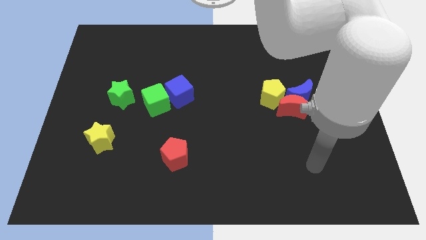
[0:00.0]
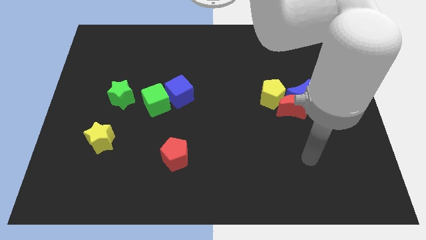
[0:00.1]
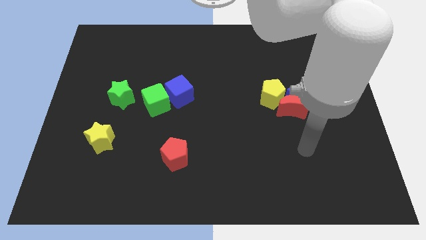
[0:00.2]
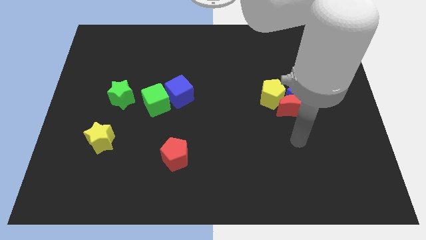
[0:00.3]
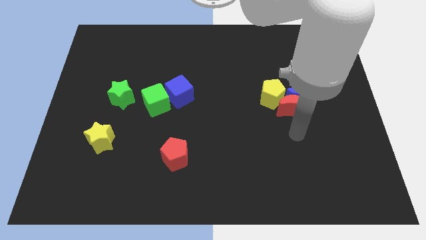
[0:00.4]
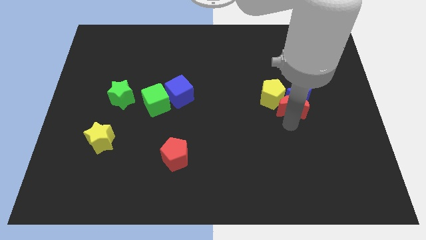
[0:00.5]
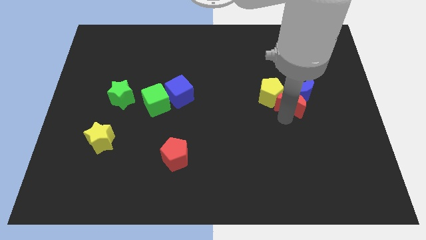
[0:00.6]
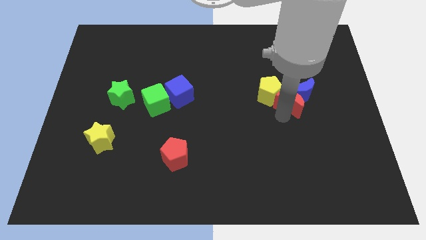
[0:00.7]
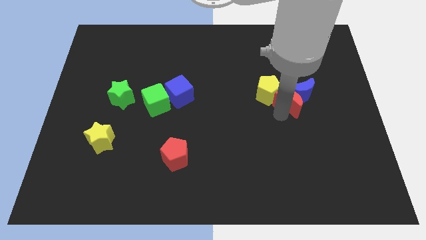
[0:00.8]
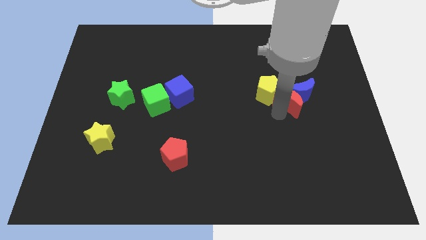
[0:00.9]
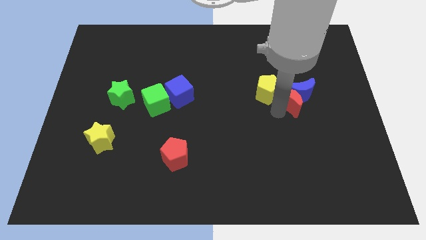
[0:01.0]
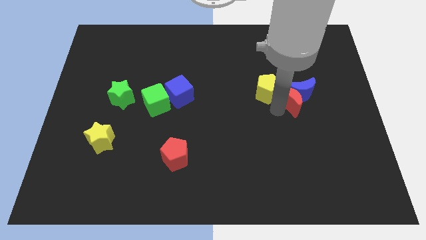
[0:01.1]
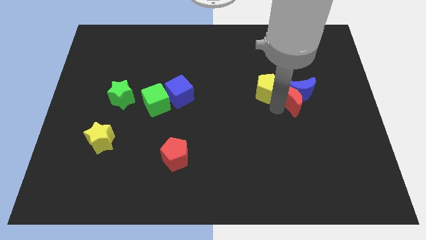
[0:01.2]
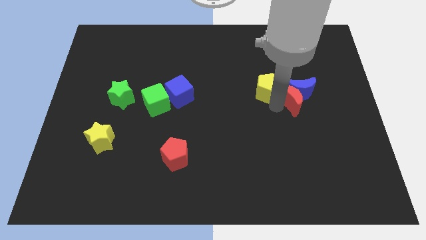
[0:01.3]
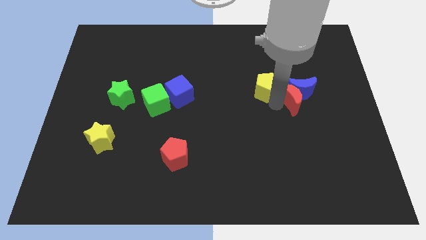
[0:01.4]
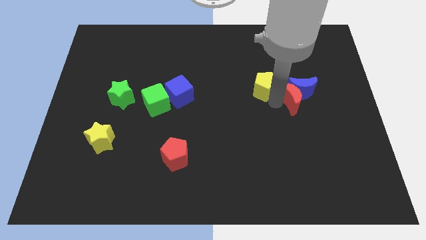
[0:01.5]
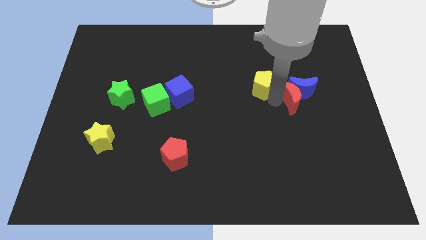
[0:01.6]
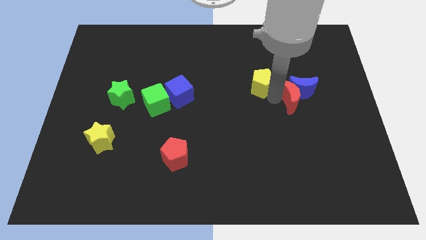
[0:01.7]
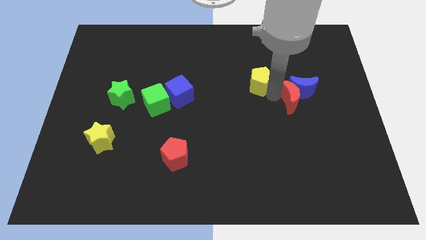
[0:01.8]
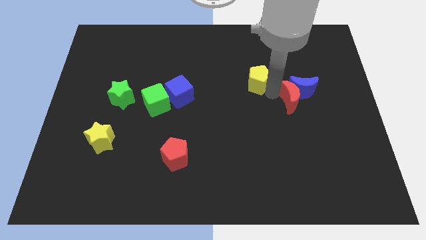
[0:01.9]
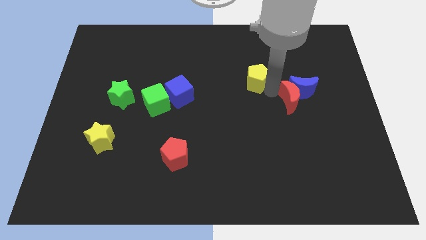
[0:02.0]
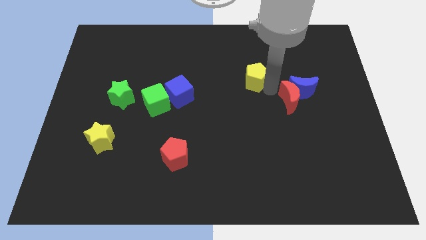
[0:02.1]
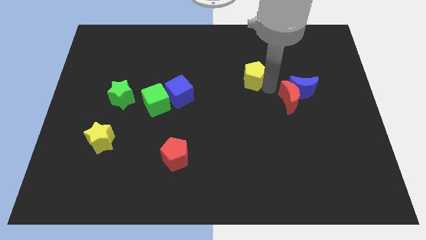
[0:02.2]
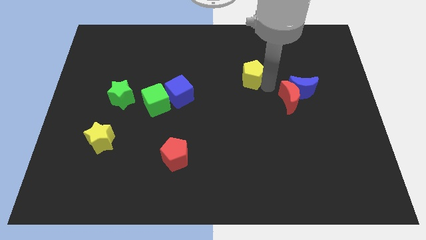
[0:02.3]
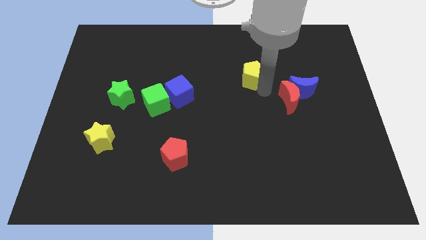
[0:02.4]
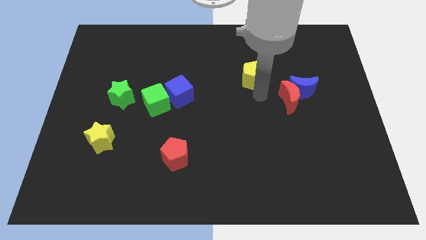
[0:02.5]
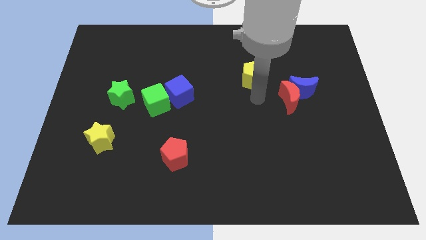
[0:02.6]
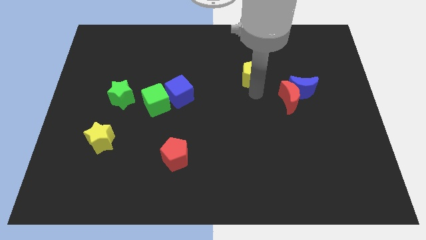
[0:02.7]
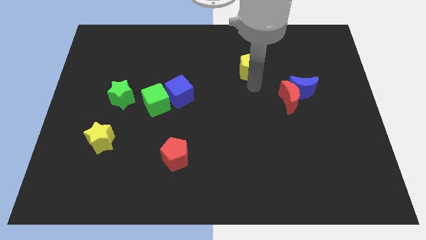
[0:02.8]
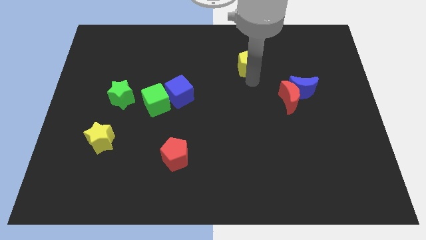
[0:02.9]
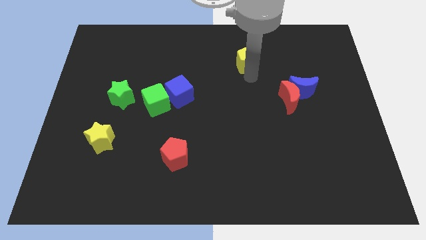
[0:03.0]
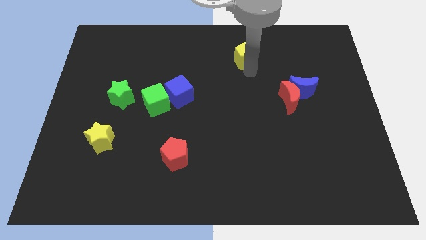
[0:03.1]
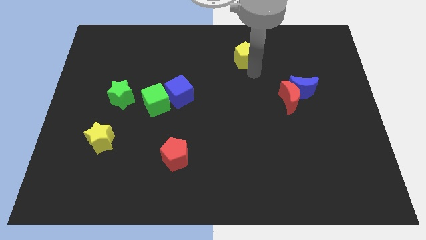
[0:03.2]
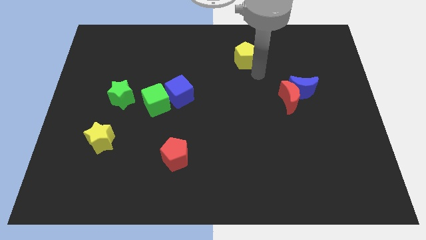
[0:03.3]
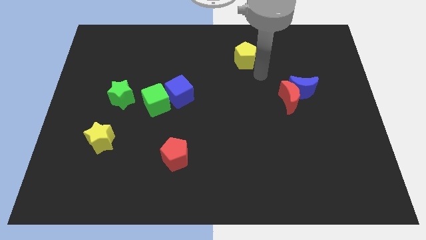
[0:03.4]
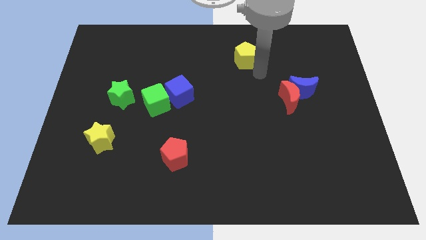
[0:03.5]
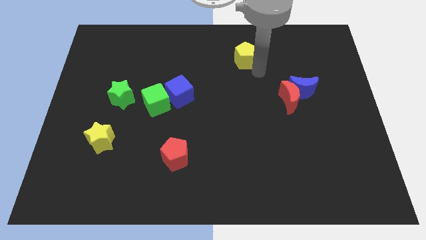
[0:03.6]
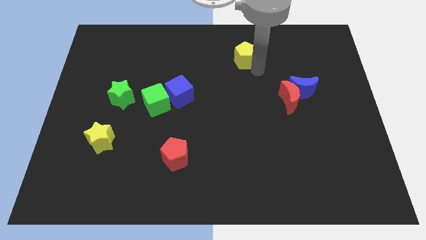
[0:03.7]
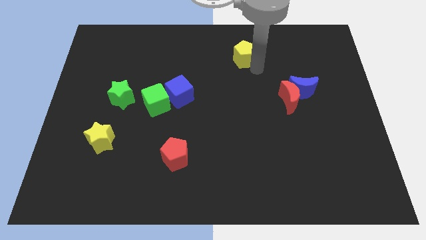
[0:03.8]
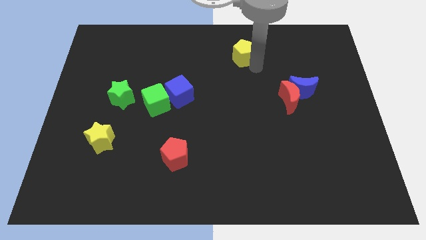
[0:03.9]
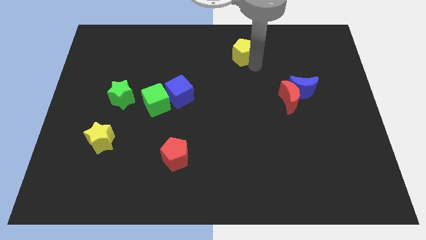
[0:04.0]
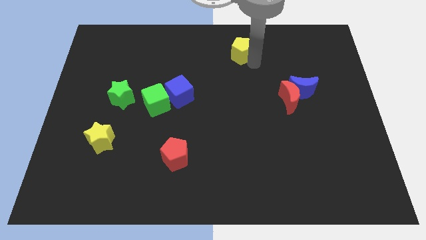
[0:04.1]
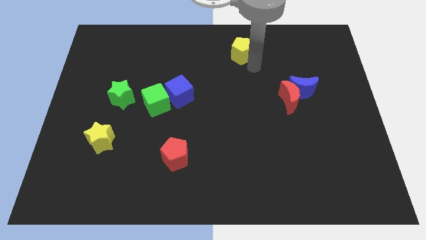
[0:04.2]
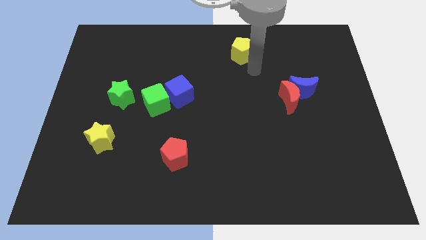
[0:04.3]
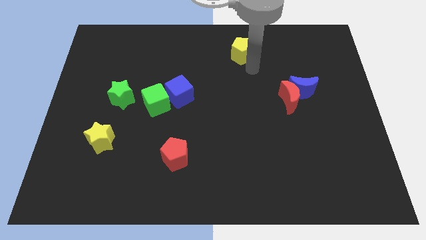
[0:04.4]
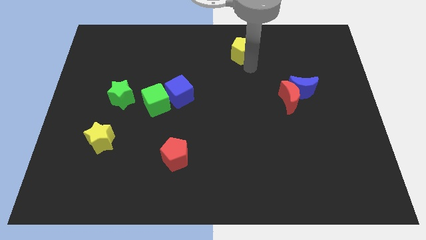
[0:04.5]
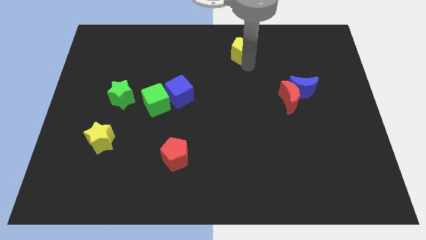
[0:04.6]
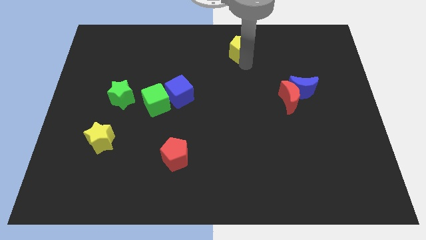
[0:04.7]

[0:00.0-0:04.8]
move the yellow pentagon to the top side

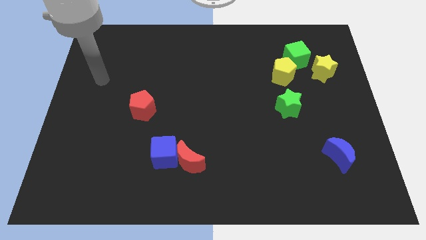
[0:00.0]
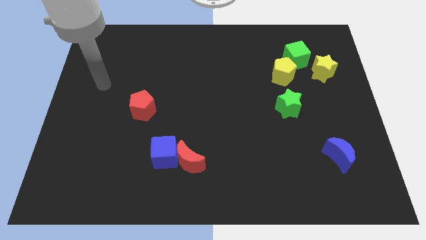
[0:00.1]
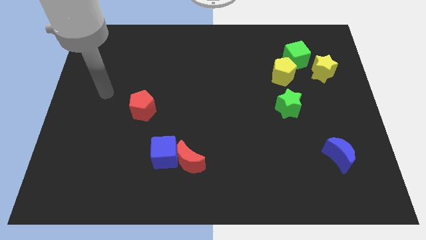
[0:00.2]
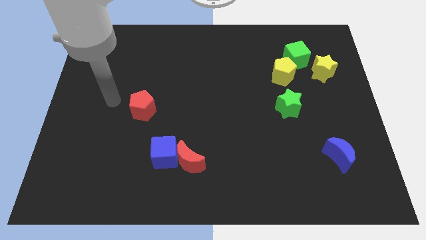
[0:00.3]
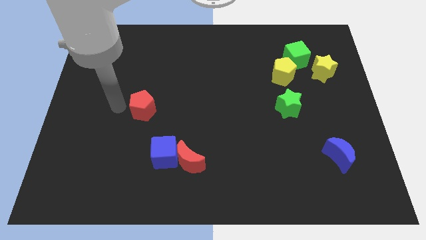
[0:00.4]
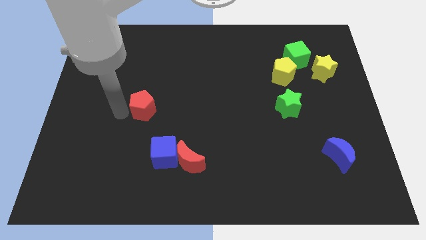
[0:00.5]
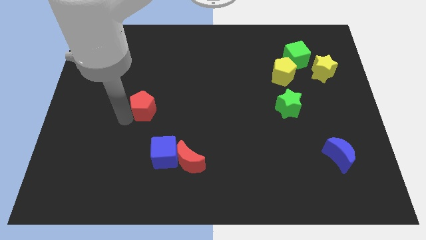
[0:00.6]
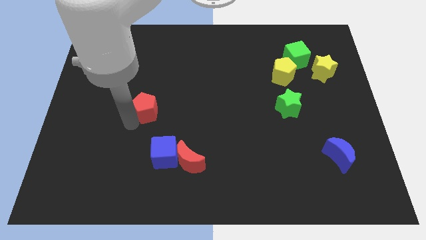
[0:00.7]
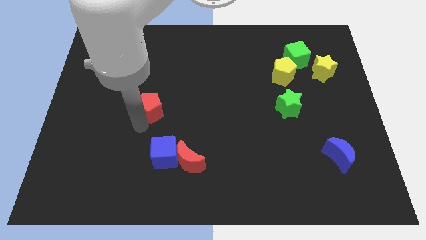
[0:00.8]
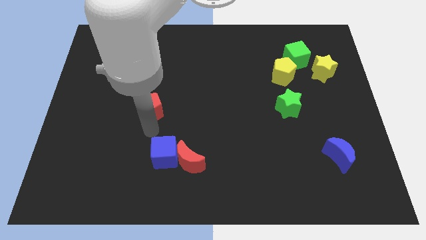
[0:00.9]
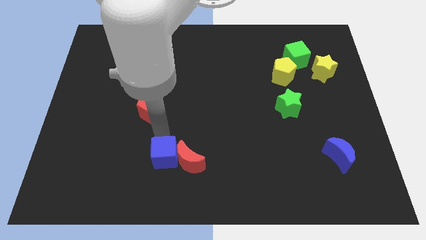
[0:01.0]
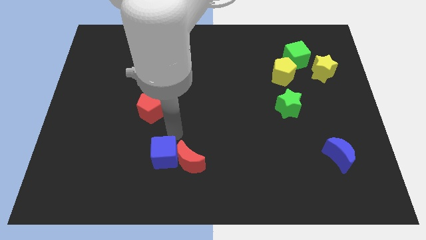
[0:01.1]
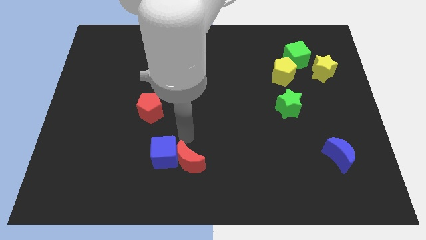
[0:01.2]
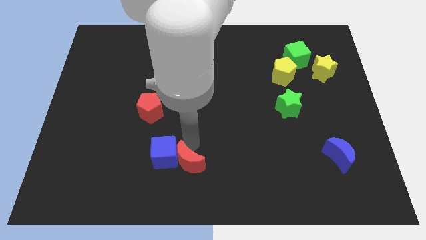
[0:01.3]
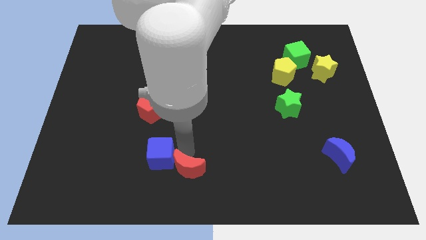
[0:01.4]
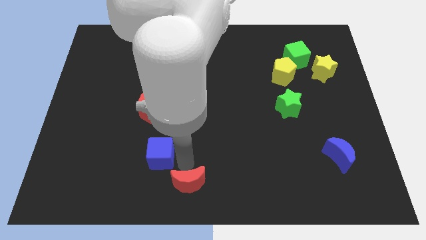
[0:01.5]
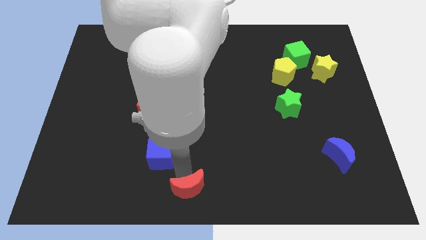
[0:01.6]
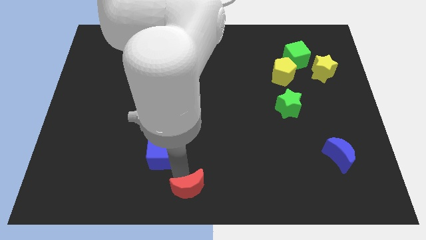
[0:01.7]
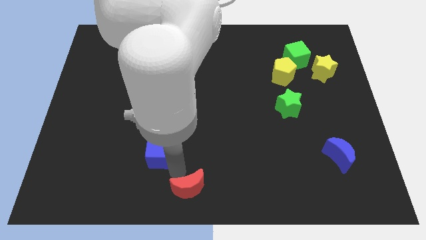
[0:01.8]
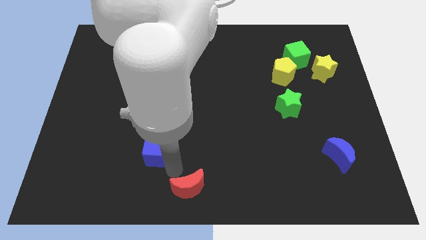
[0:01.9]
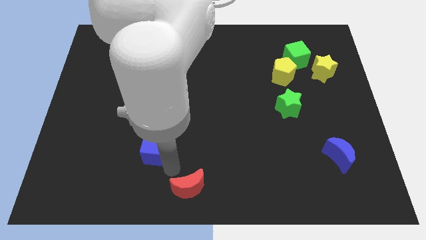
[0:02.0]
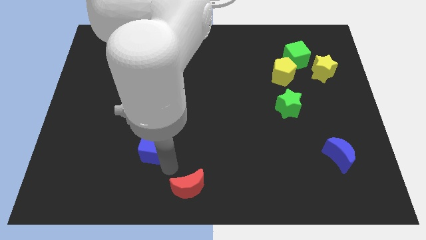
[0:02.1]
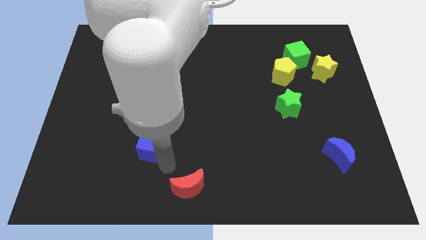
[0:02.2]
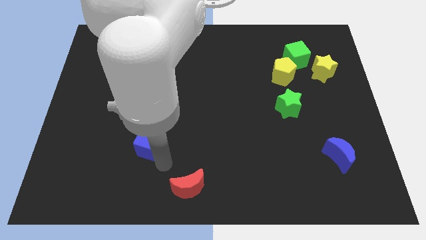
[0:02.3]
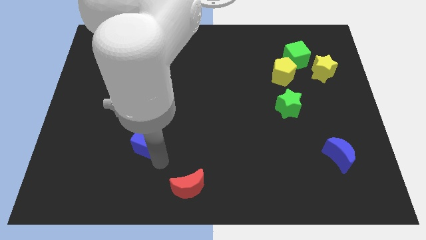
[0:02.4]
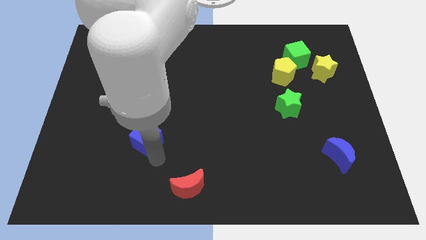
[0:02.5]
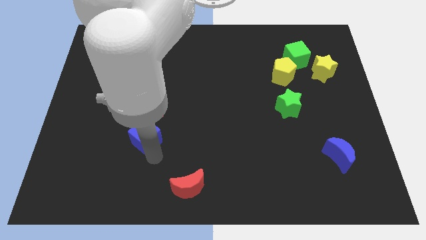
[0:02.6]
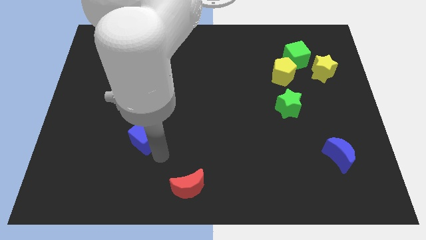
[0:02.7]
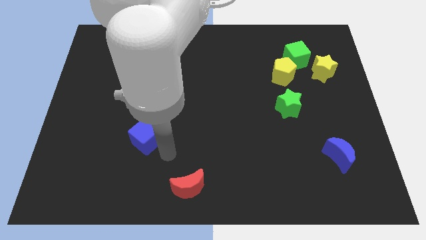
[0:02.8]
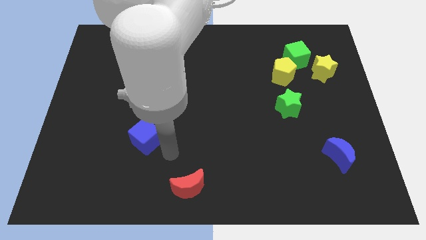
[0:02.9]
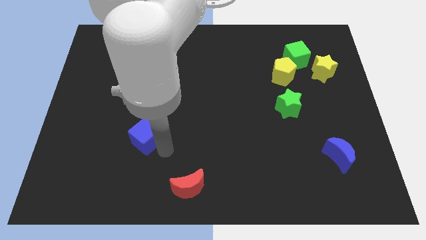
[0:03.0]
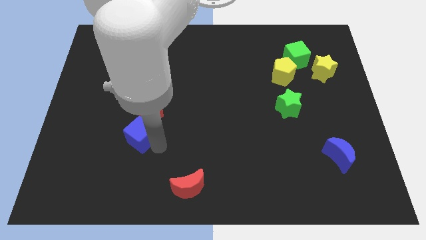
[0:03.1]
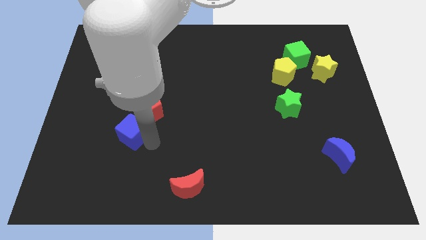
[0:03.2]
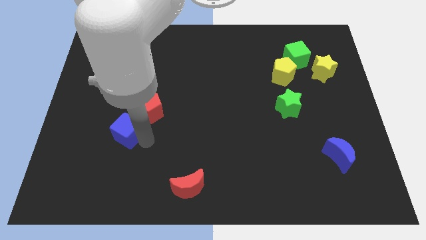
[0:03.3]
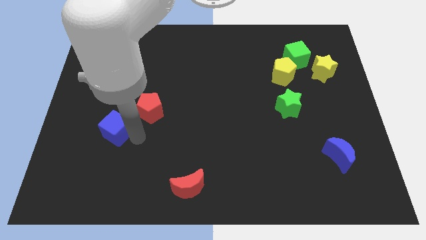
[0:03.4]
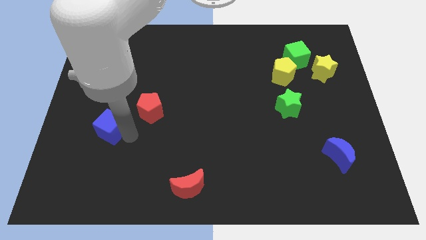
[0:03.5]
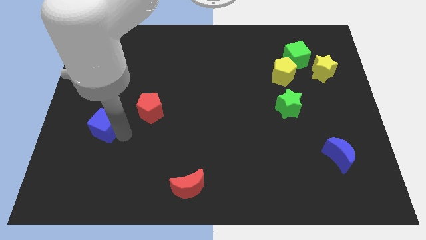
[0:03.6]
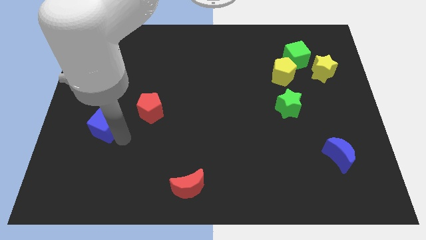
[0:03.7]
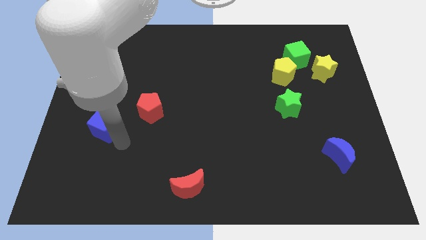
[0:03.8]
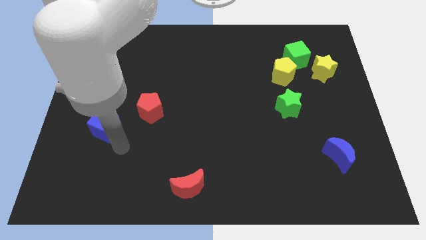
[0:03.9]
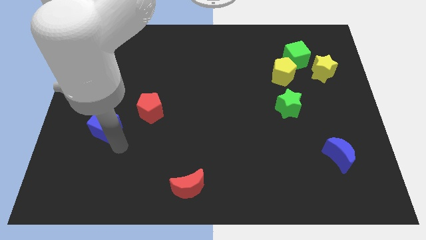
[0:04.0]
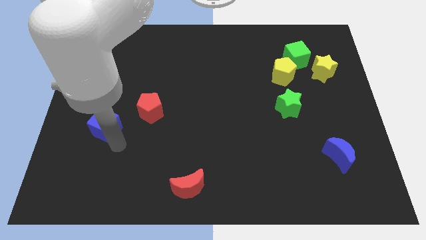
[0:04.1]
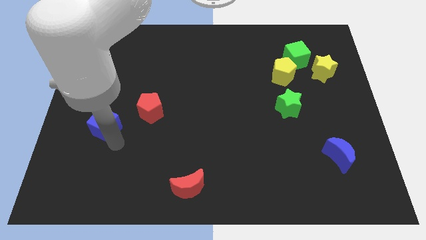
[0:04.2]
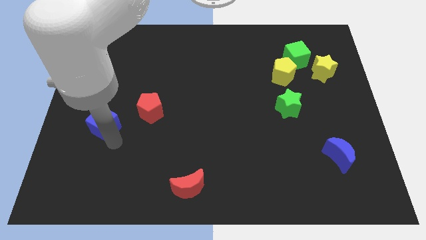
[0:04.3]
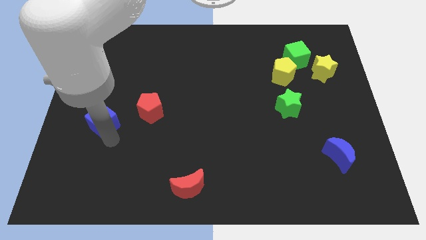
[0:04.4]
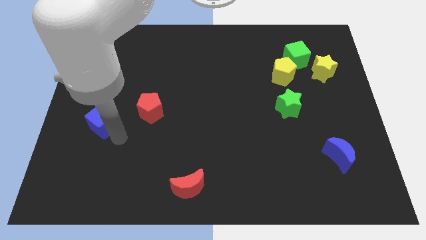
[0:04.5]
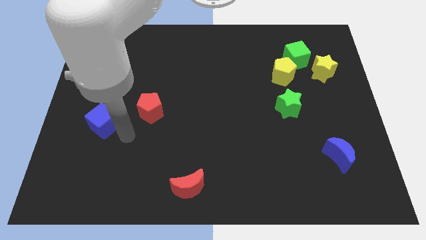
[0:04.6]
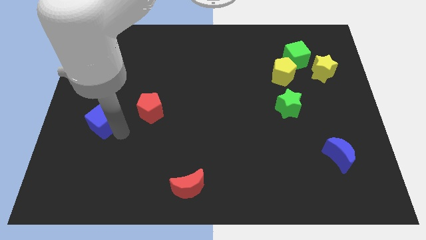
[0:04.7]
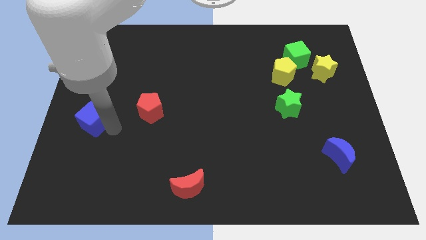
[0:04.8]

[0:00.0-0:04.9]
push the blue cube to the left side
